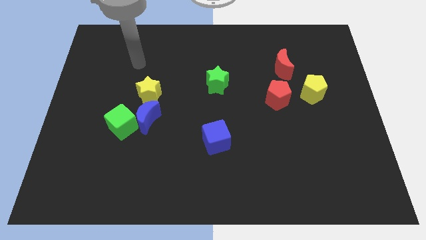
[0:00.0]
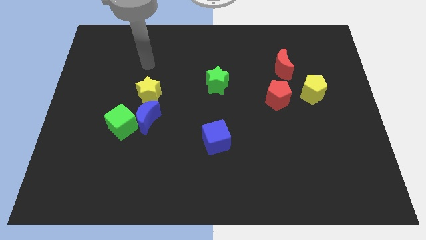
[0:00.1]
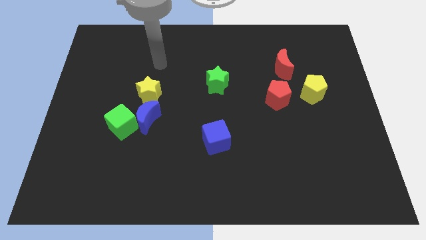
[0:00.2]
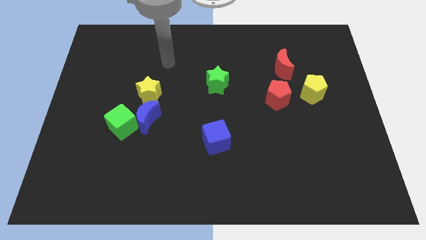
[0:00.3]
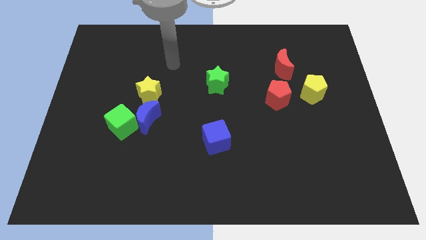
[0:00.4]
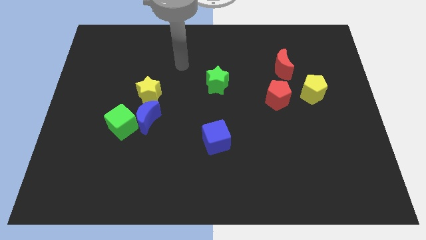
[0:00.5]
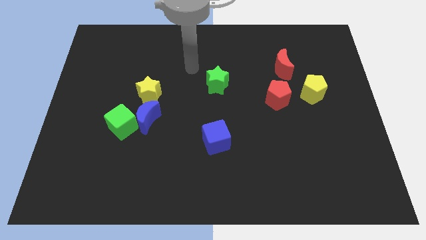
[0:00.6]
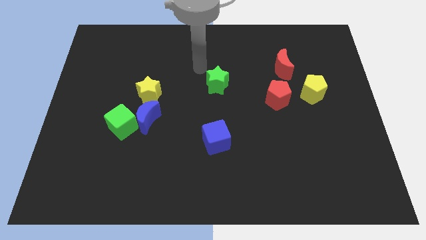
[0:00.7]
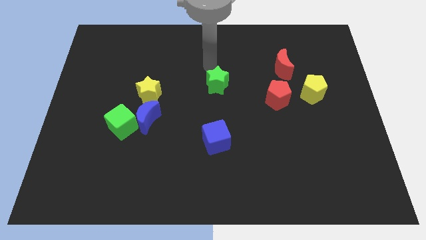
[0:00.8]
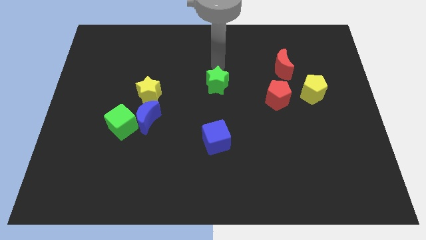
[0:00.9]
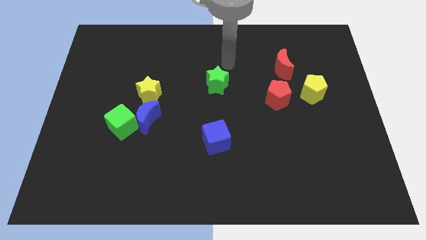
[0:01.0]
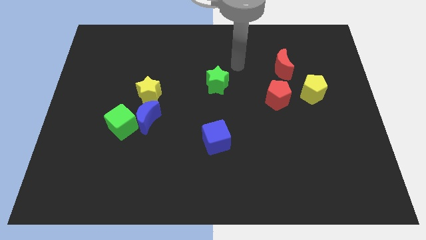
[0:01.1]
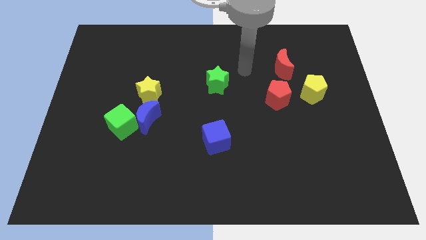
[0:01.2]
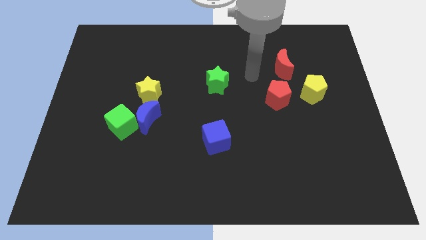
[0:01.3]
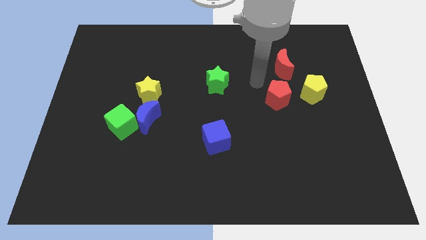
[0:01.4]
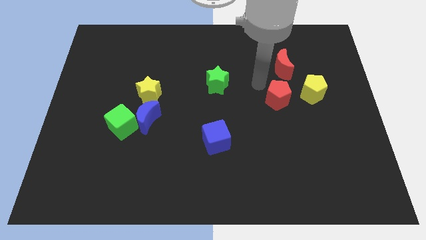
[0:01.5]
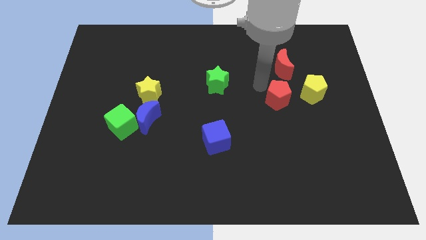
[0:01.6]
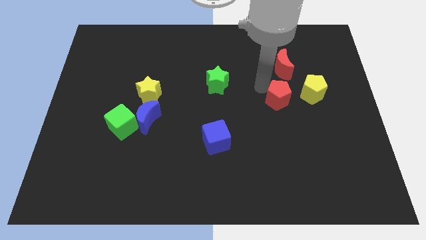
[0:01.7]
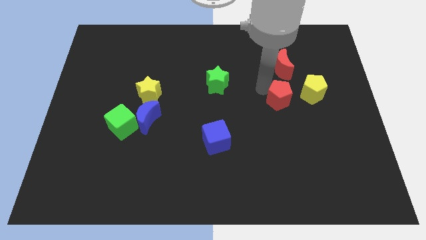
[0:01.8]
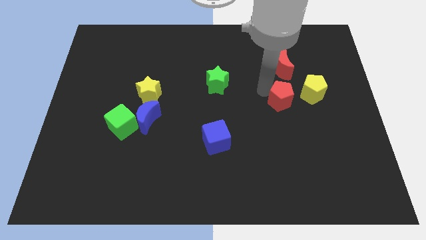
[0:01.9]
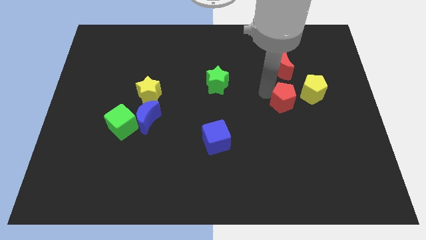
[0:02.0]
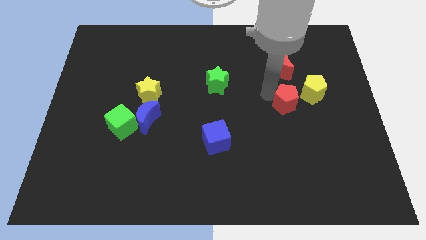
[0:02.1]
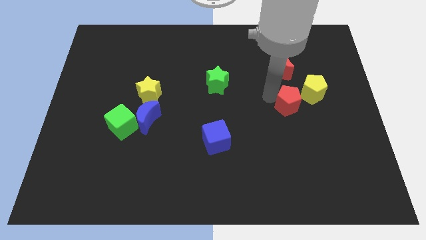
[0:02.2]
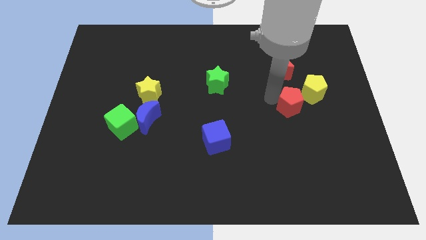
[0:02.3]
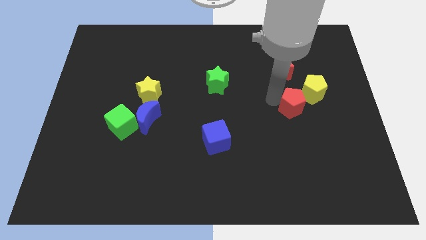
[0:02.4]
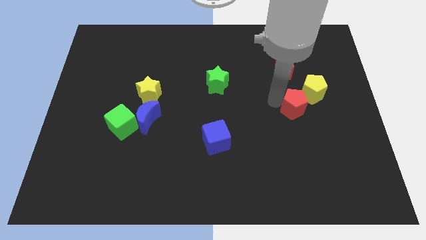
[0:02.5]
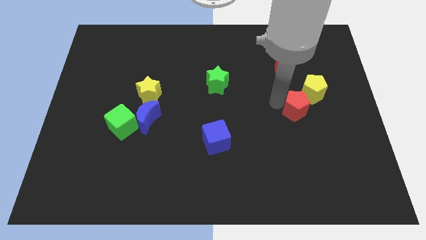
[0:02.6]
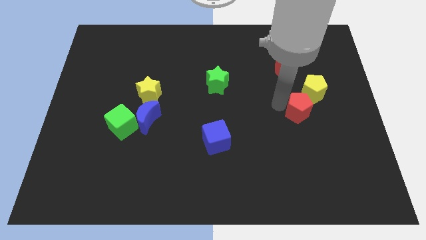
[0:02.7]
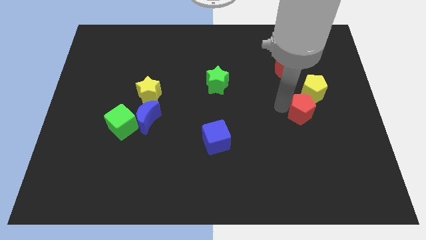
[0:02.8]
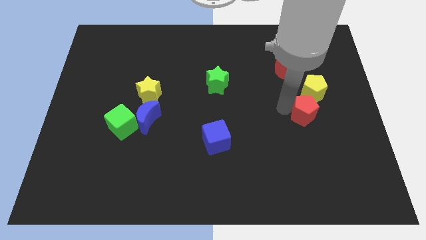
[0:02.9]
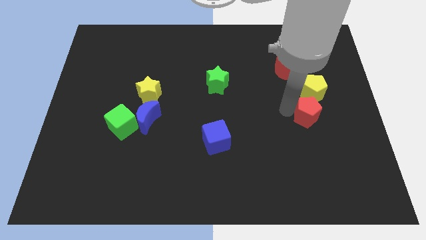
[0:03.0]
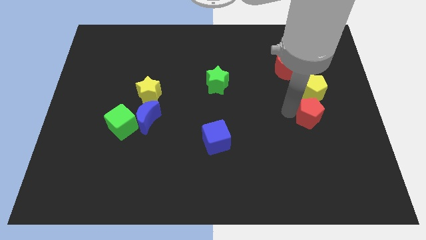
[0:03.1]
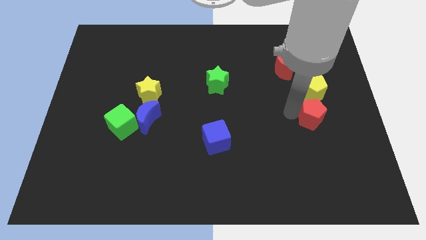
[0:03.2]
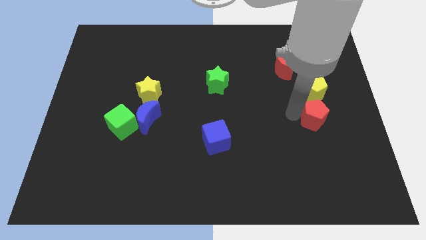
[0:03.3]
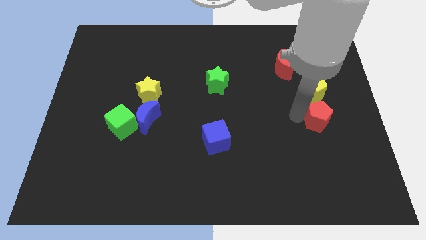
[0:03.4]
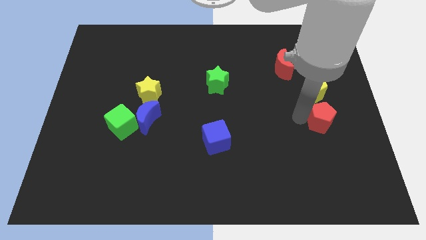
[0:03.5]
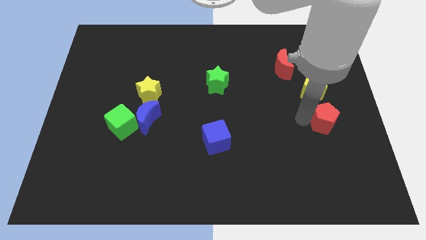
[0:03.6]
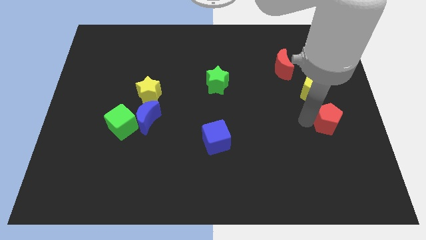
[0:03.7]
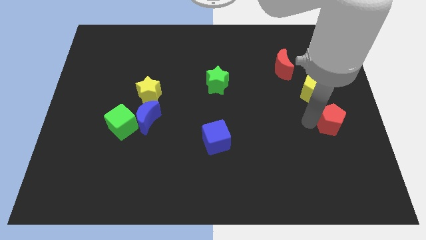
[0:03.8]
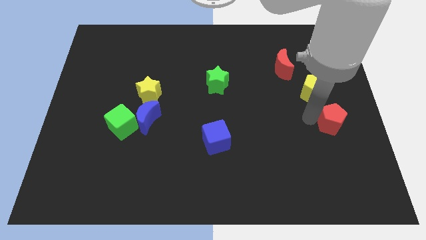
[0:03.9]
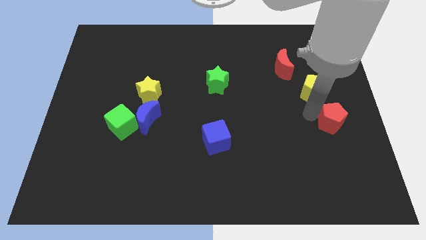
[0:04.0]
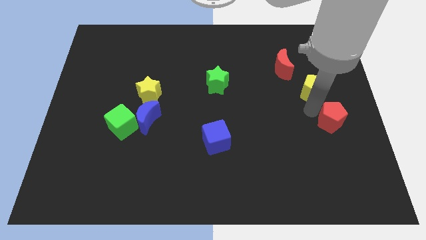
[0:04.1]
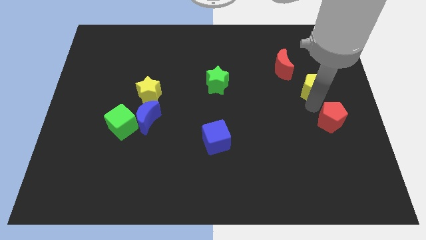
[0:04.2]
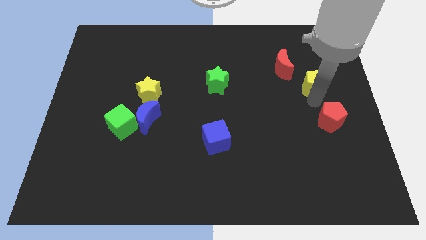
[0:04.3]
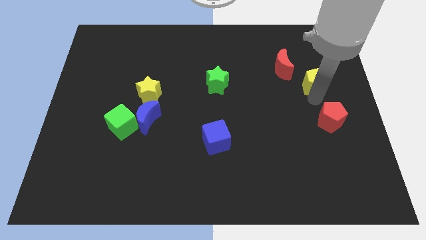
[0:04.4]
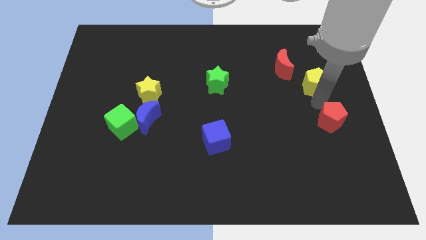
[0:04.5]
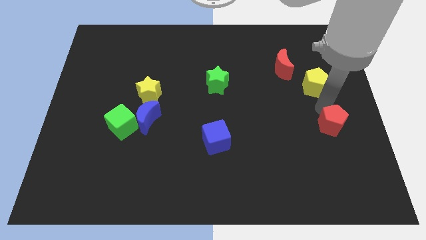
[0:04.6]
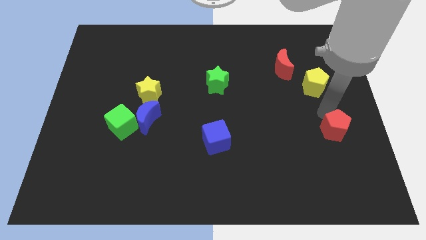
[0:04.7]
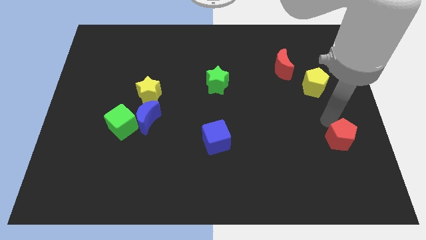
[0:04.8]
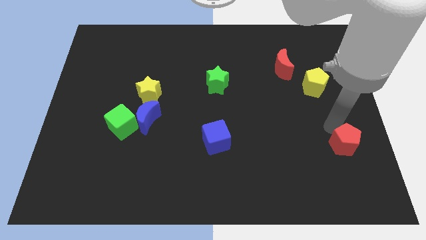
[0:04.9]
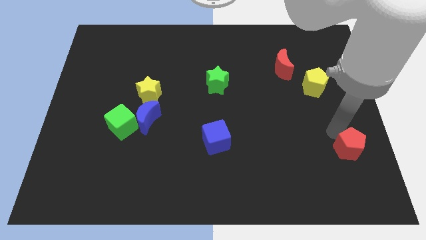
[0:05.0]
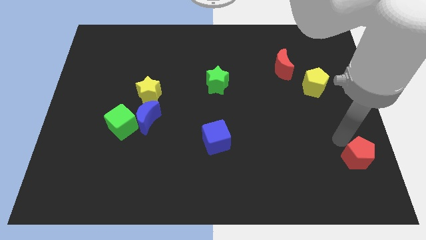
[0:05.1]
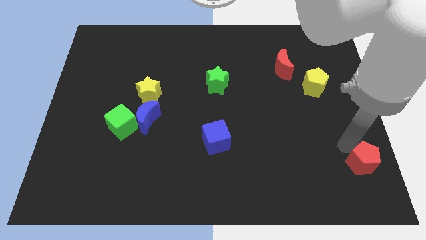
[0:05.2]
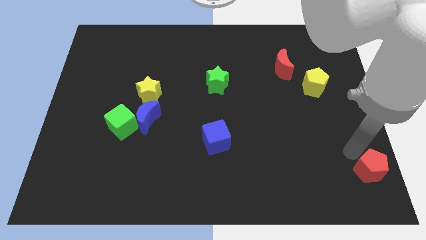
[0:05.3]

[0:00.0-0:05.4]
slide the red pentagon to the lower right corner

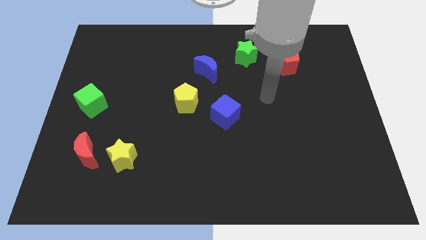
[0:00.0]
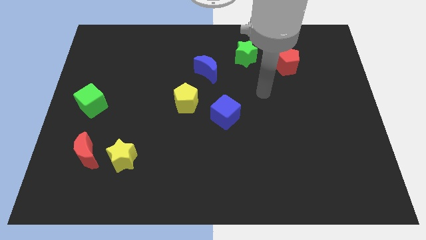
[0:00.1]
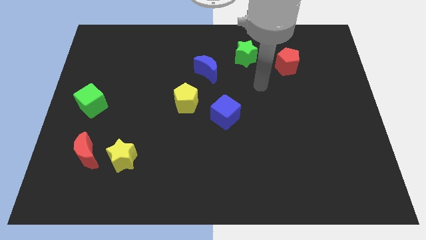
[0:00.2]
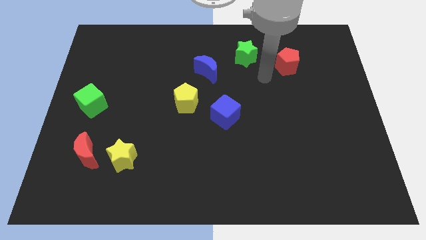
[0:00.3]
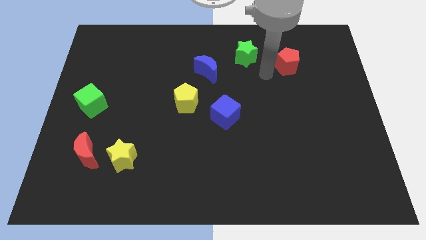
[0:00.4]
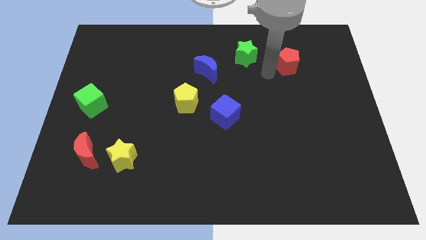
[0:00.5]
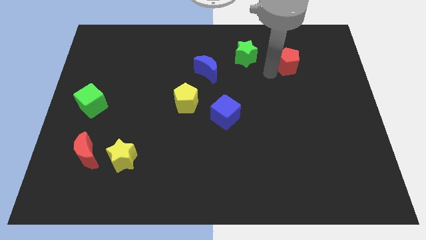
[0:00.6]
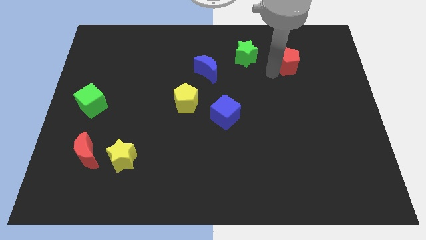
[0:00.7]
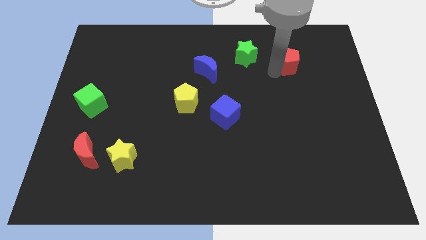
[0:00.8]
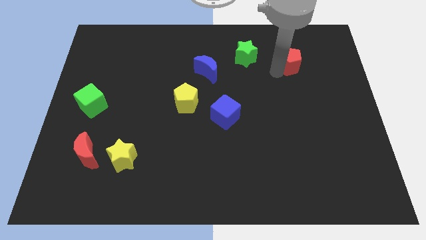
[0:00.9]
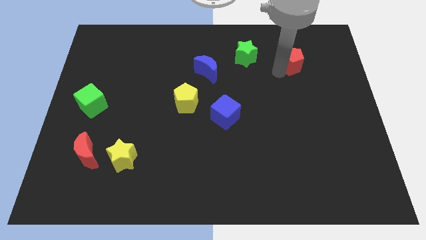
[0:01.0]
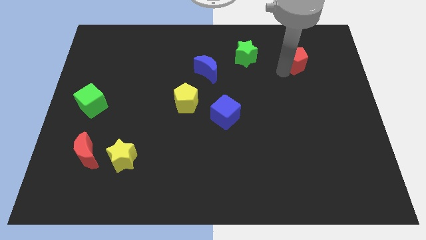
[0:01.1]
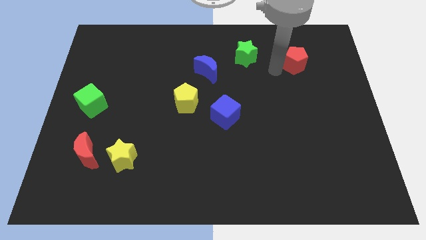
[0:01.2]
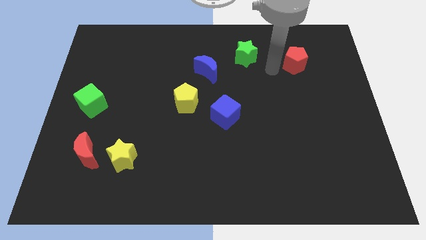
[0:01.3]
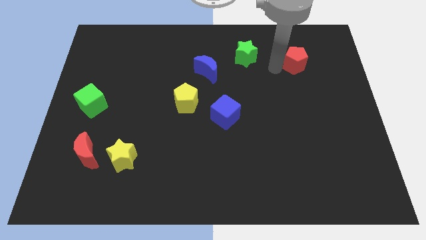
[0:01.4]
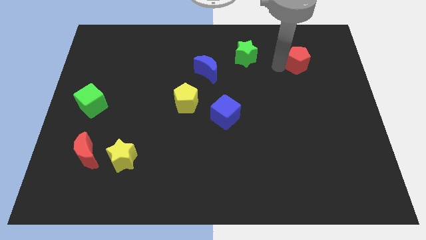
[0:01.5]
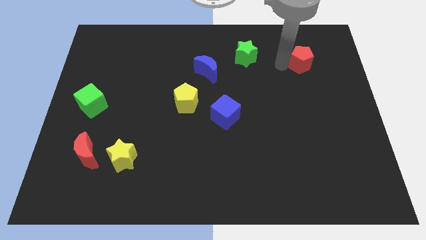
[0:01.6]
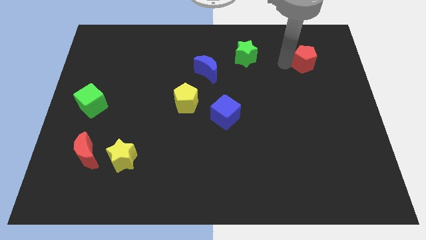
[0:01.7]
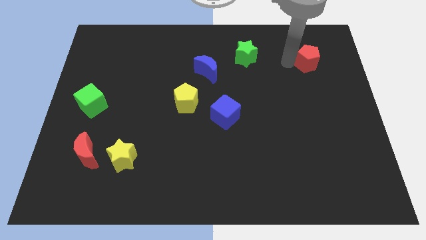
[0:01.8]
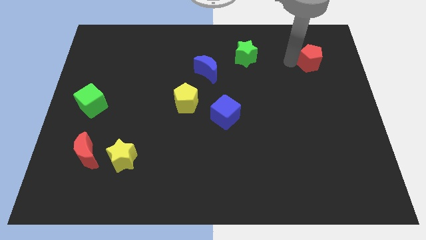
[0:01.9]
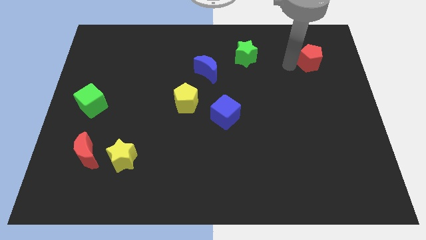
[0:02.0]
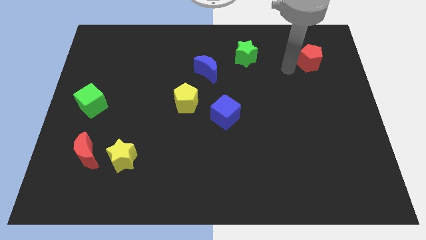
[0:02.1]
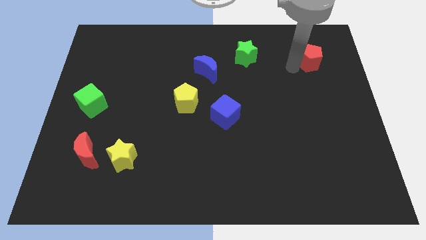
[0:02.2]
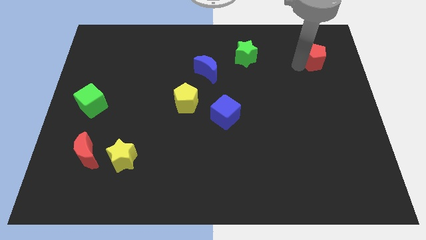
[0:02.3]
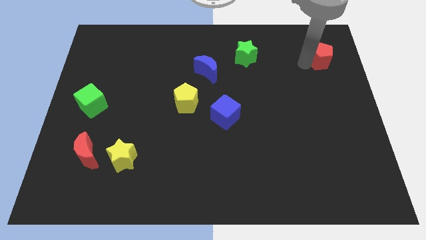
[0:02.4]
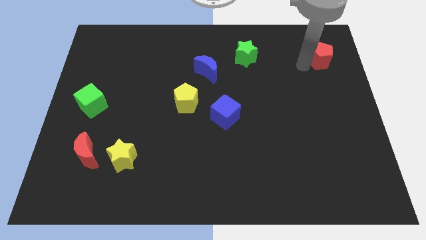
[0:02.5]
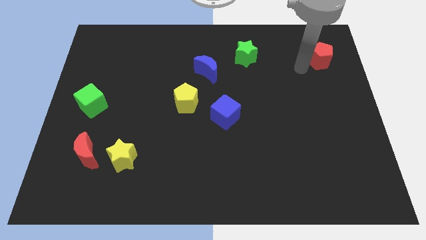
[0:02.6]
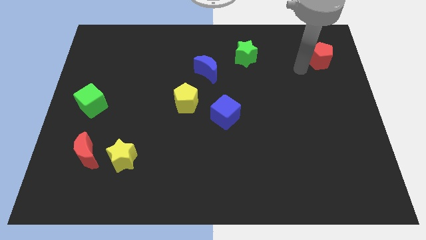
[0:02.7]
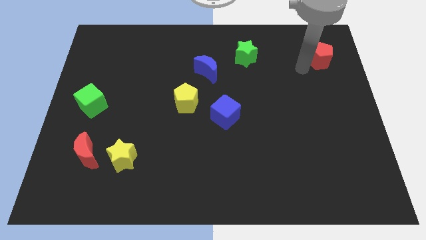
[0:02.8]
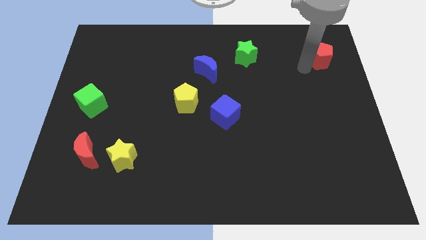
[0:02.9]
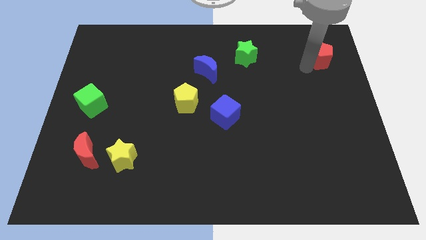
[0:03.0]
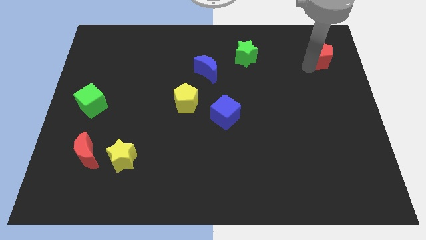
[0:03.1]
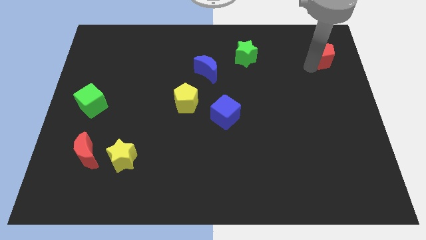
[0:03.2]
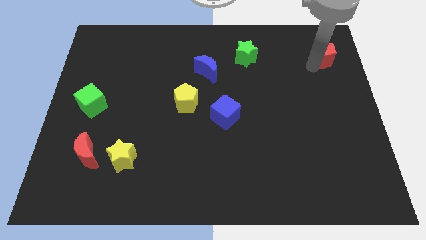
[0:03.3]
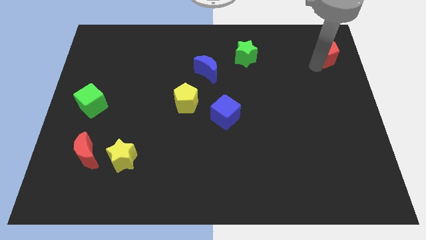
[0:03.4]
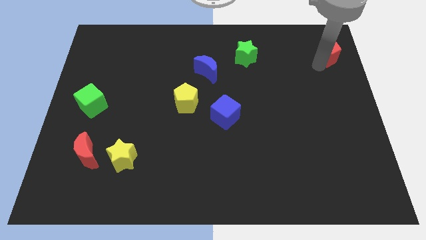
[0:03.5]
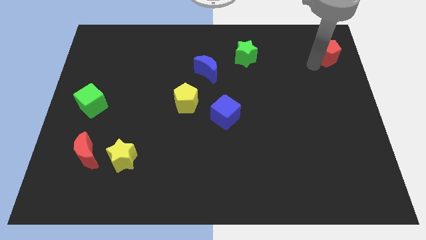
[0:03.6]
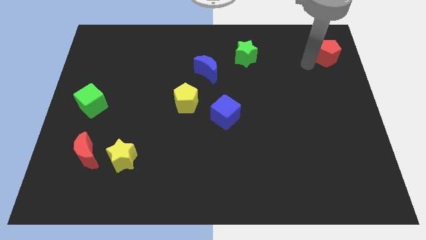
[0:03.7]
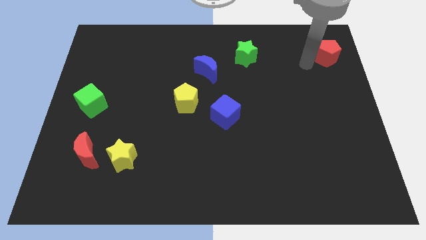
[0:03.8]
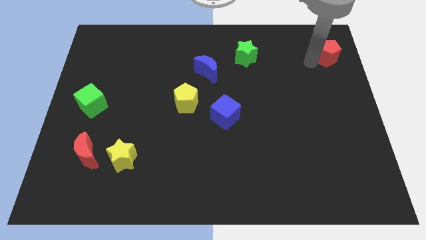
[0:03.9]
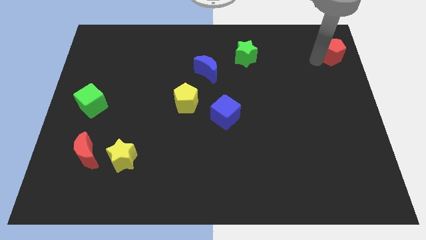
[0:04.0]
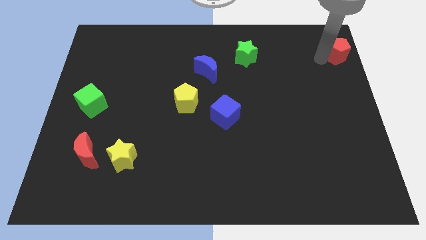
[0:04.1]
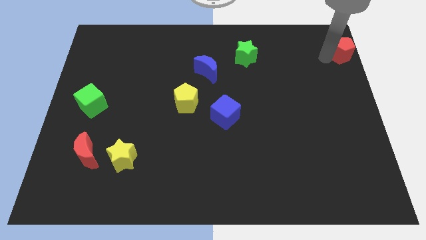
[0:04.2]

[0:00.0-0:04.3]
move the red pentagon to the top right of the board
